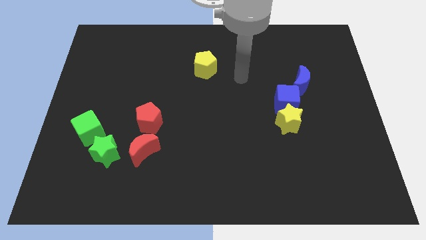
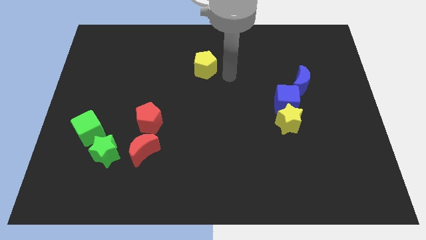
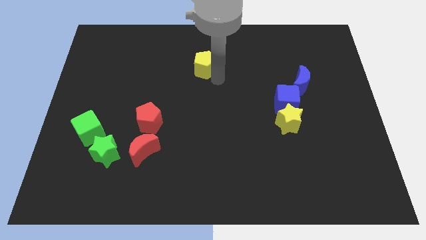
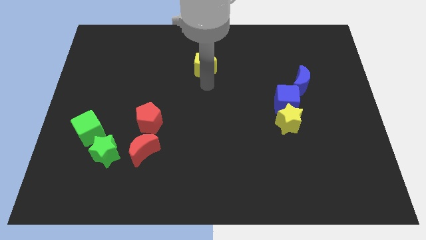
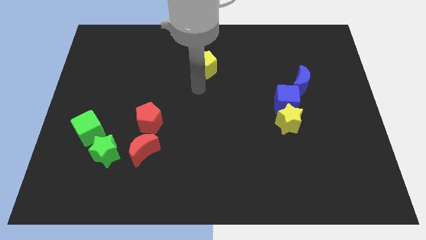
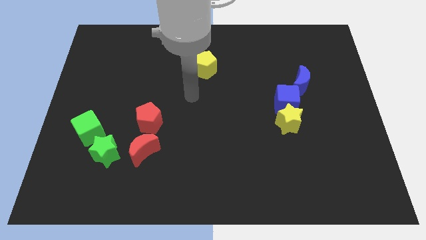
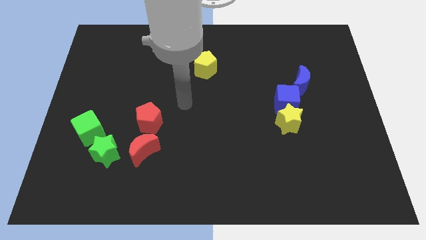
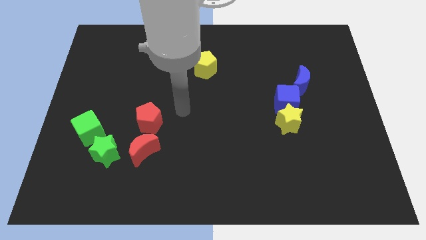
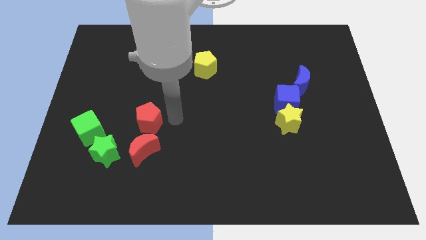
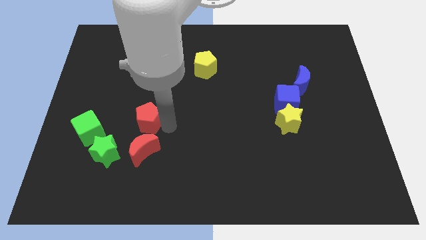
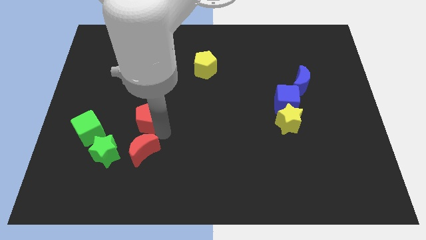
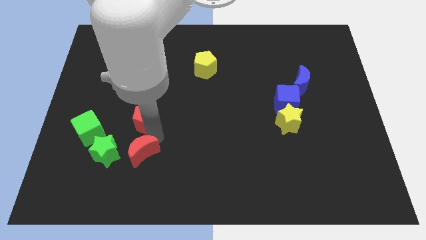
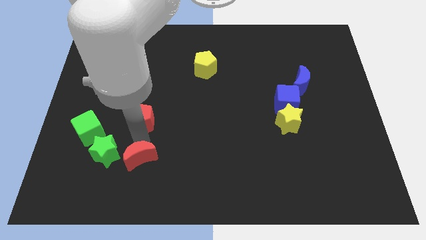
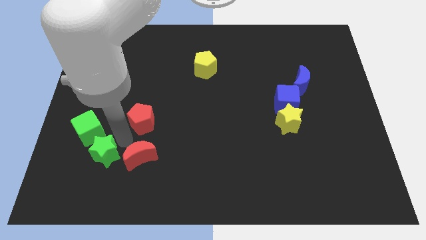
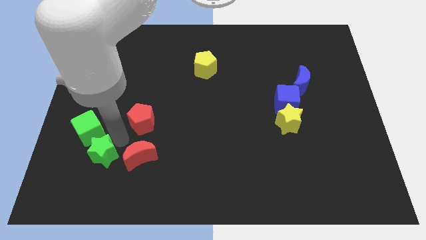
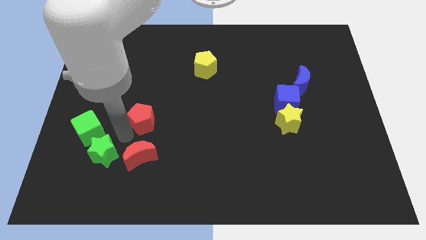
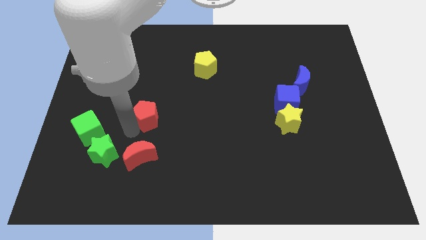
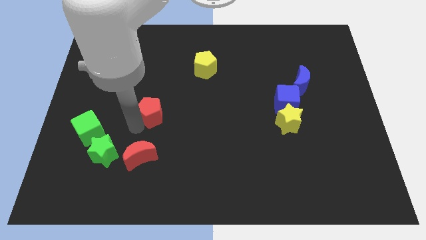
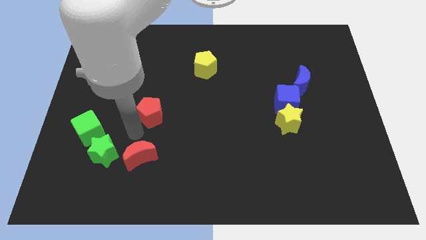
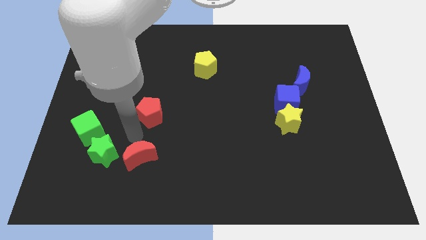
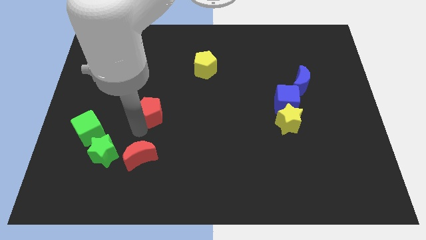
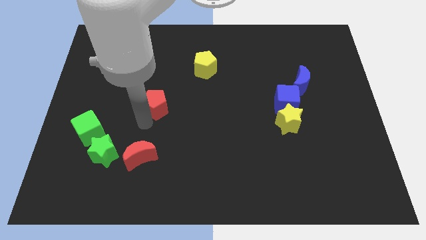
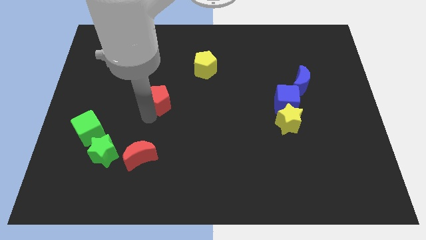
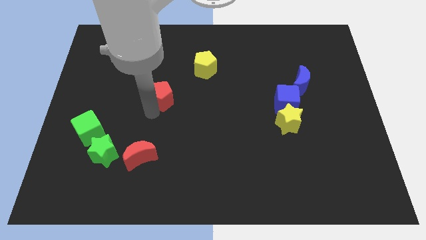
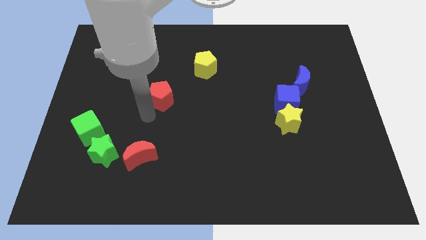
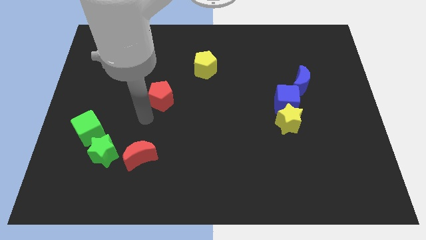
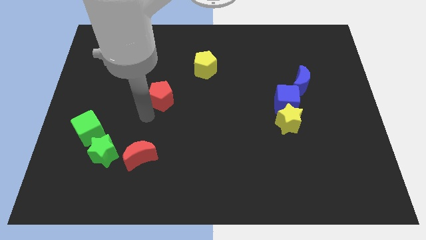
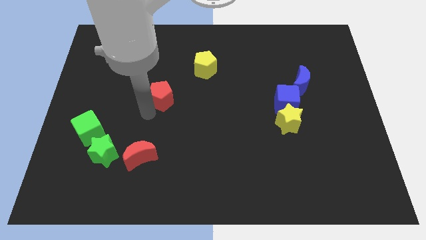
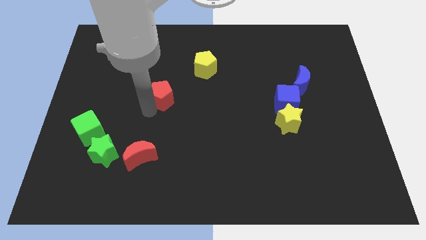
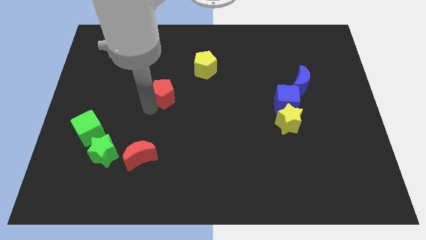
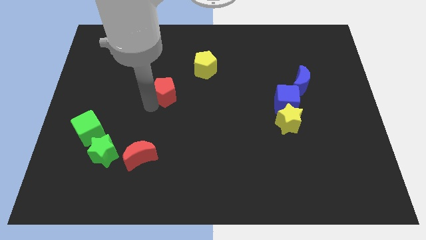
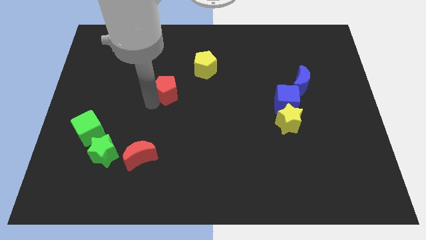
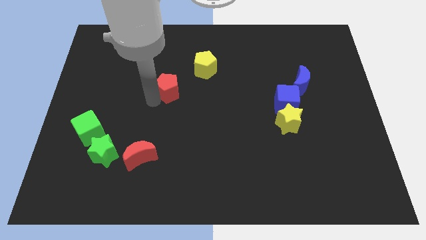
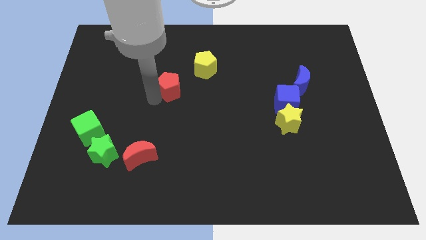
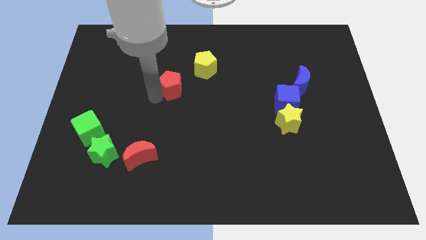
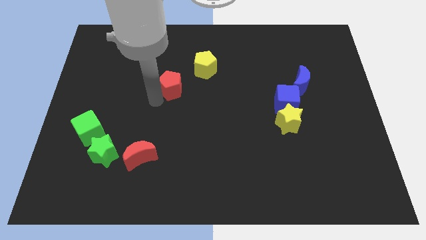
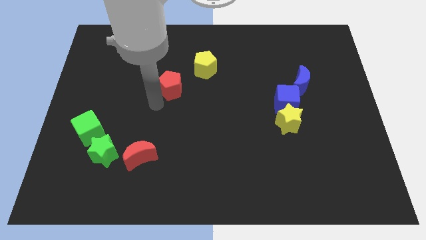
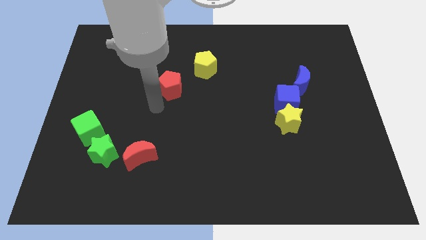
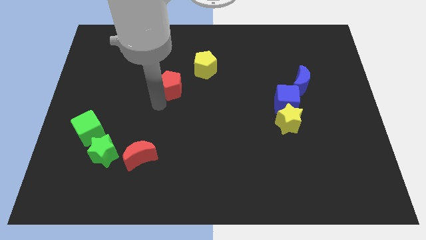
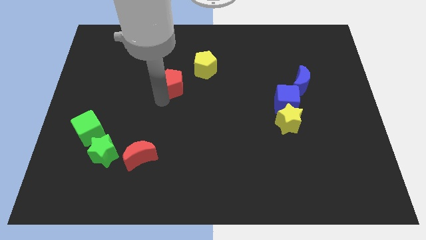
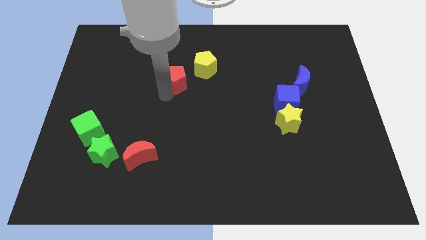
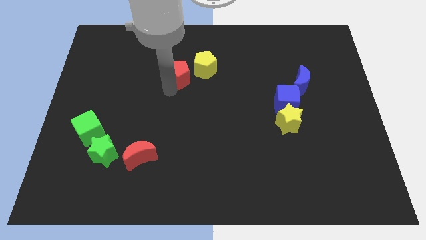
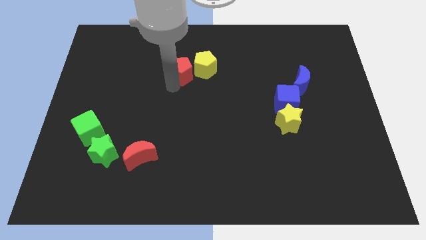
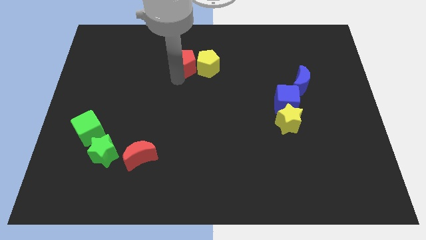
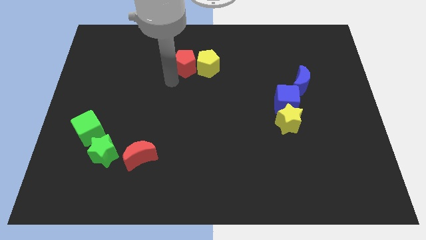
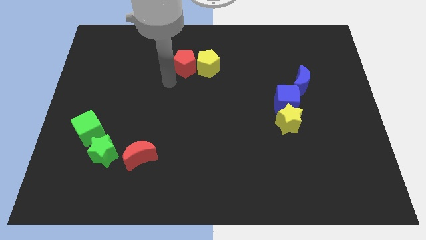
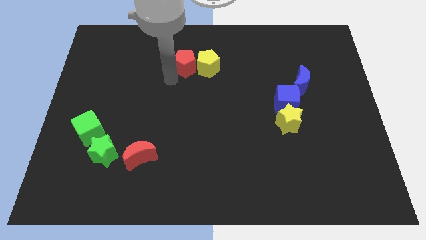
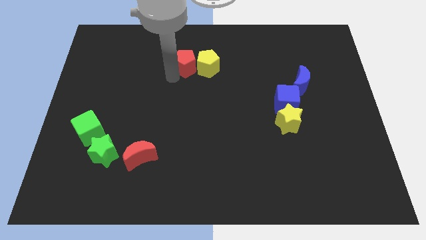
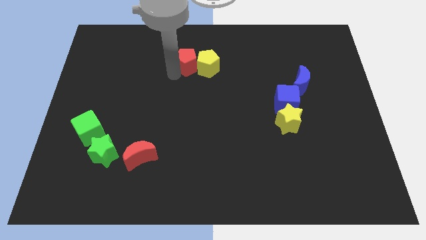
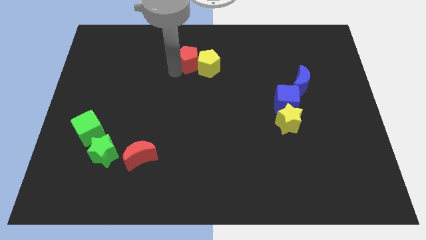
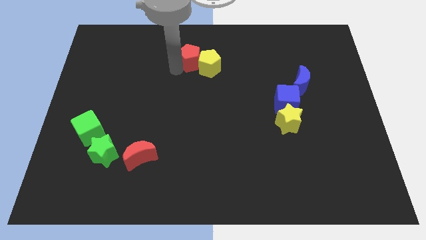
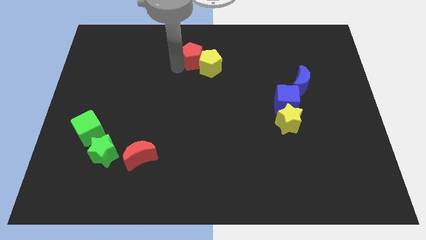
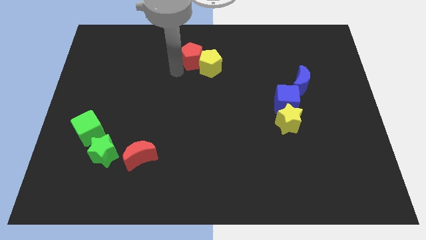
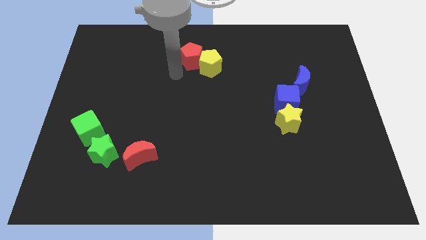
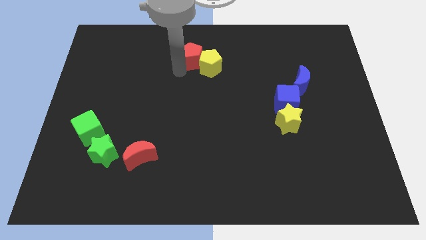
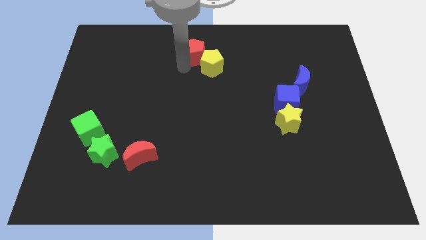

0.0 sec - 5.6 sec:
put the red pentagon to the top
